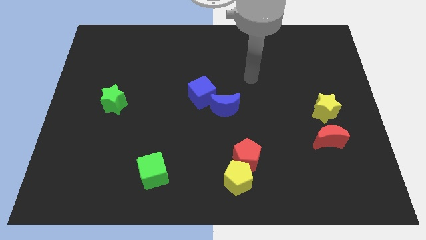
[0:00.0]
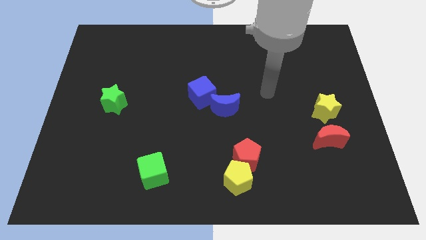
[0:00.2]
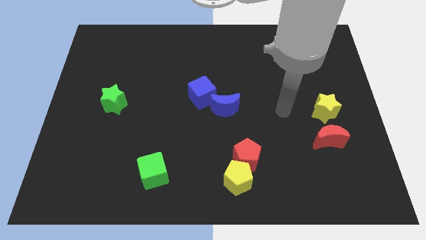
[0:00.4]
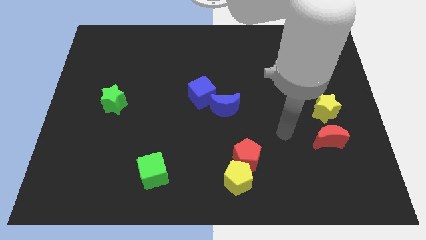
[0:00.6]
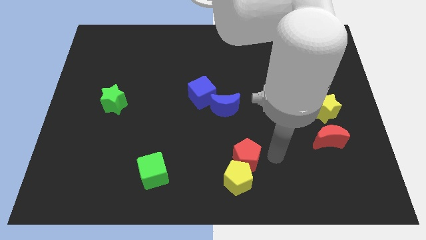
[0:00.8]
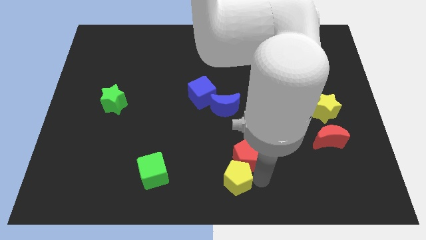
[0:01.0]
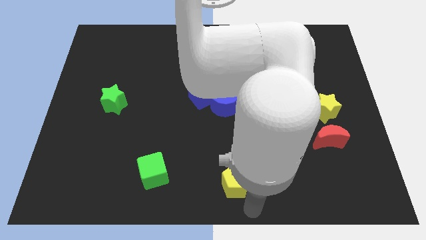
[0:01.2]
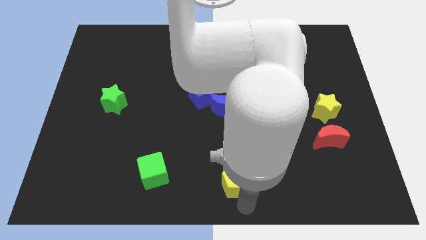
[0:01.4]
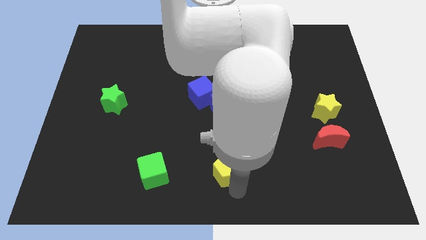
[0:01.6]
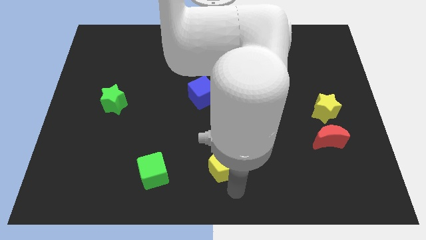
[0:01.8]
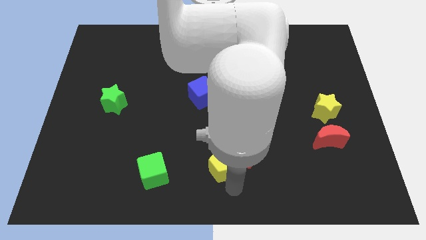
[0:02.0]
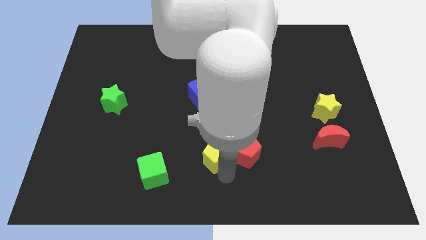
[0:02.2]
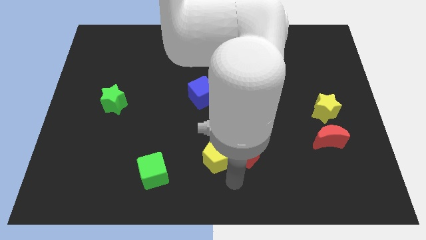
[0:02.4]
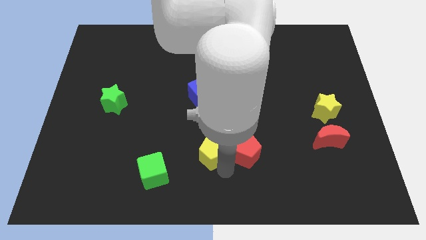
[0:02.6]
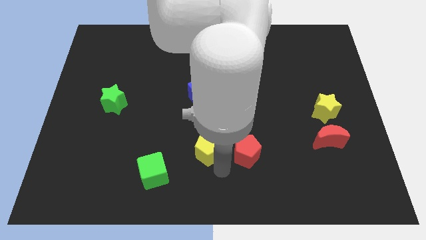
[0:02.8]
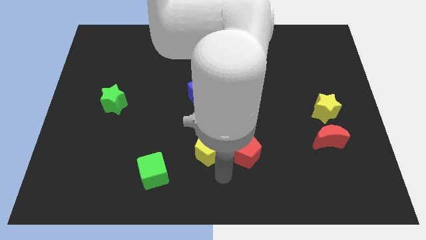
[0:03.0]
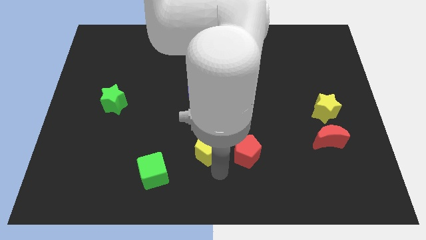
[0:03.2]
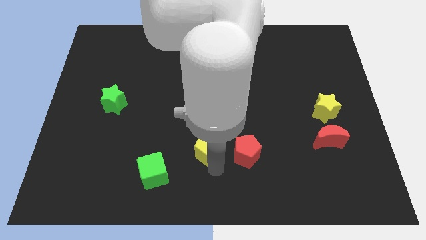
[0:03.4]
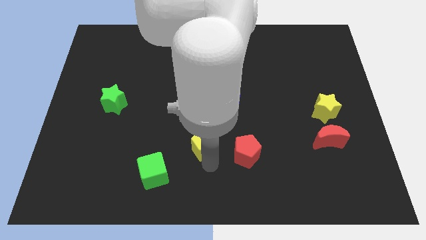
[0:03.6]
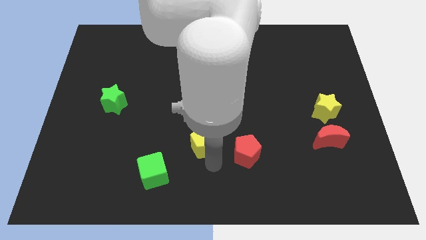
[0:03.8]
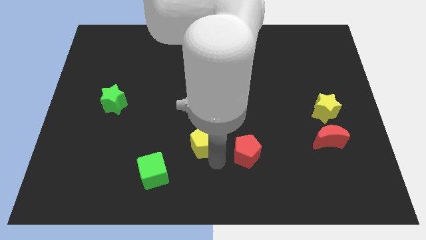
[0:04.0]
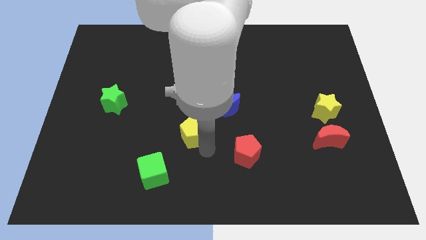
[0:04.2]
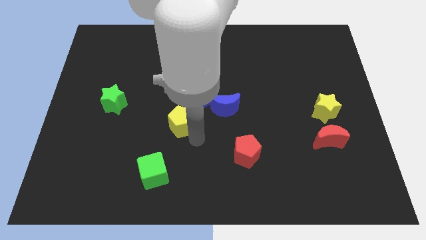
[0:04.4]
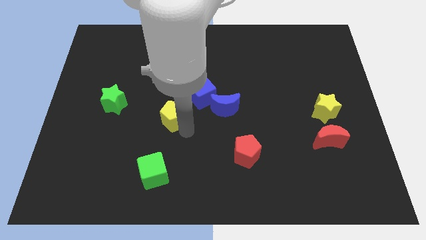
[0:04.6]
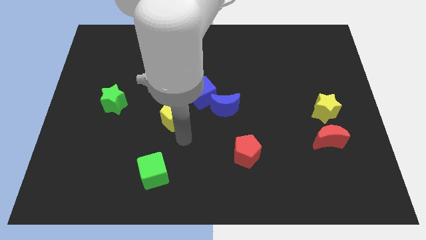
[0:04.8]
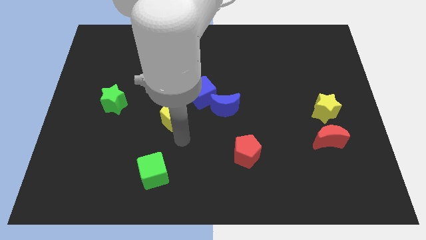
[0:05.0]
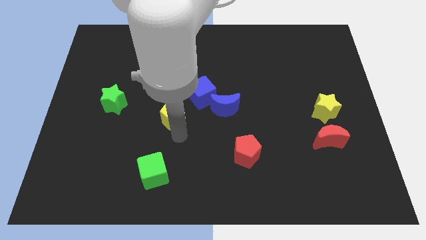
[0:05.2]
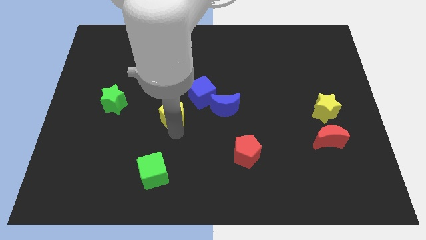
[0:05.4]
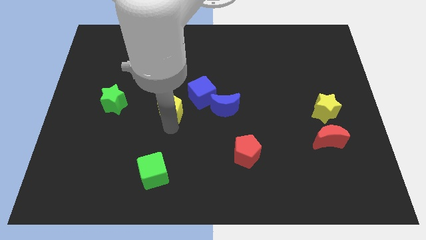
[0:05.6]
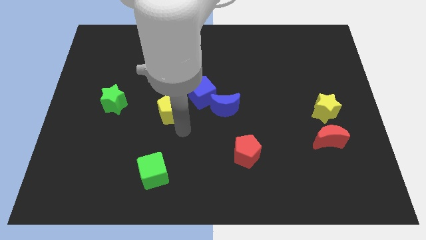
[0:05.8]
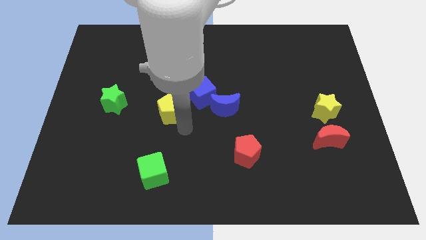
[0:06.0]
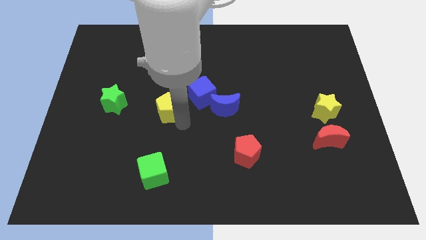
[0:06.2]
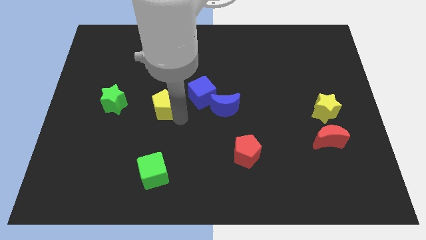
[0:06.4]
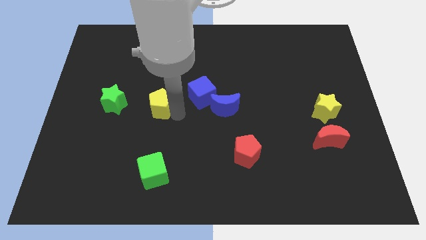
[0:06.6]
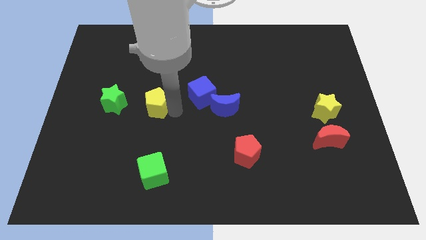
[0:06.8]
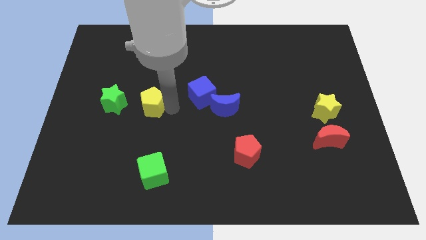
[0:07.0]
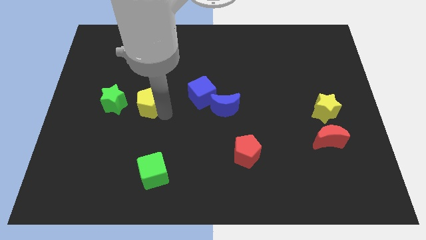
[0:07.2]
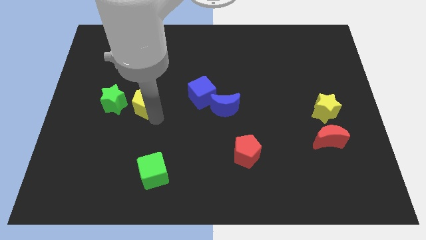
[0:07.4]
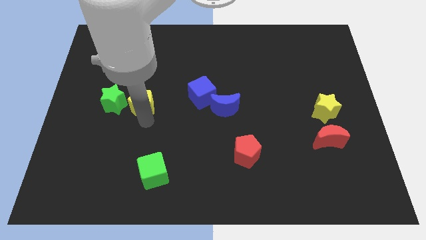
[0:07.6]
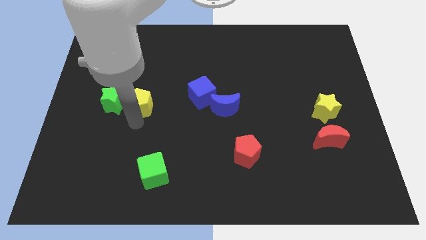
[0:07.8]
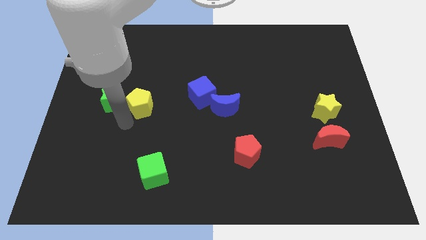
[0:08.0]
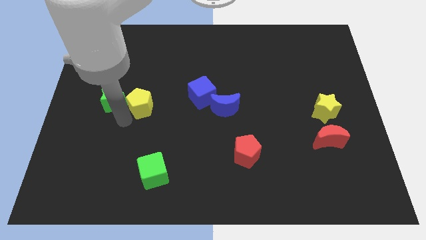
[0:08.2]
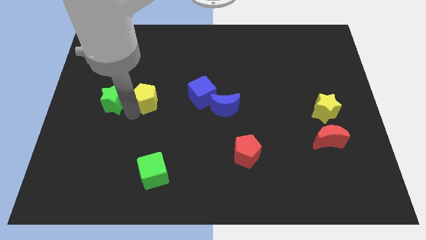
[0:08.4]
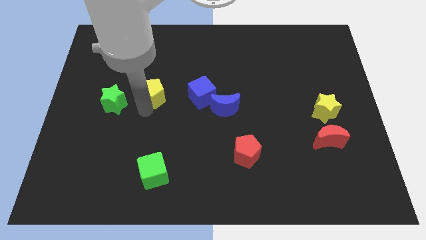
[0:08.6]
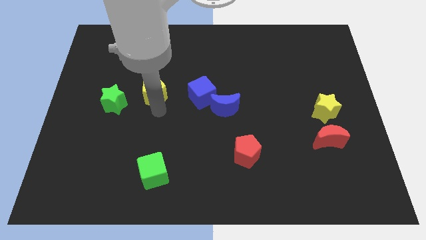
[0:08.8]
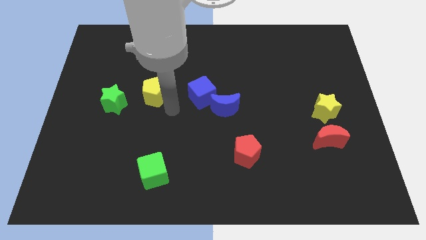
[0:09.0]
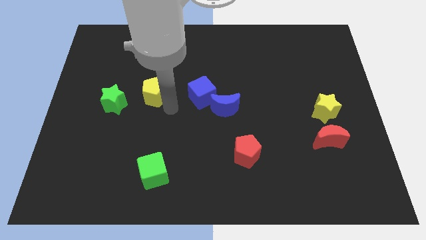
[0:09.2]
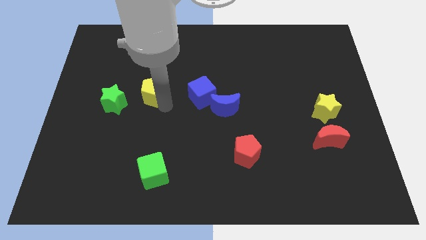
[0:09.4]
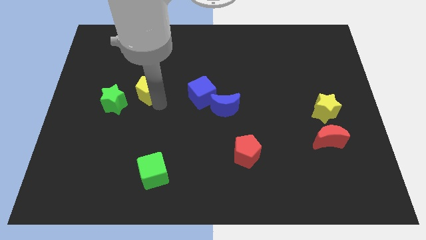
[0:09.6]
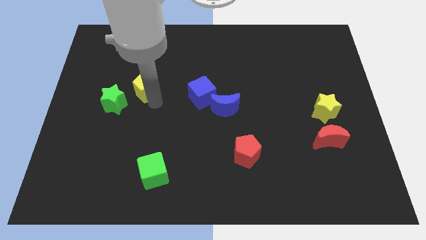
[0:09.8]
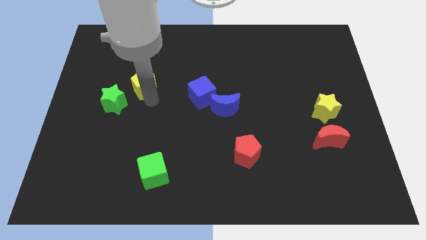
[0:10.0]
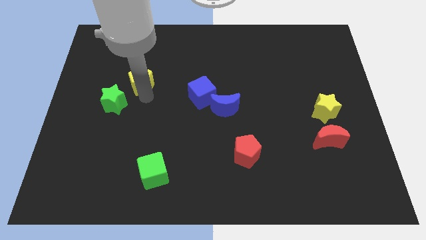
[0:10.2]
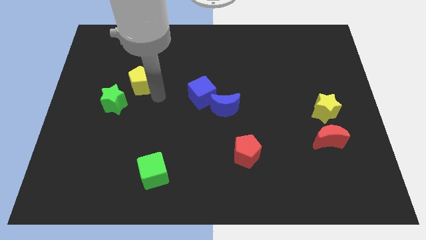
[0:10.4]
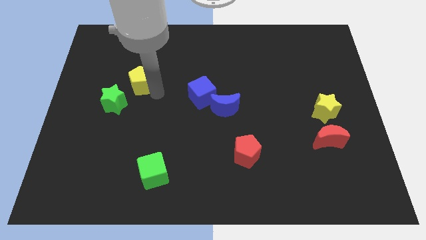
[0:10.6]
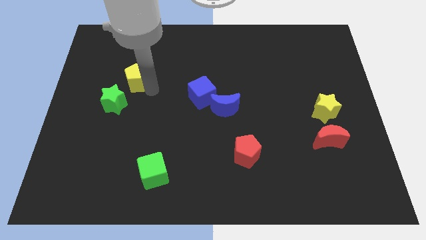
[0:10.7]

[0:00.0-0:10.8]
move the yellow pentagon to the top side of the green star

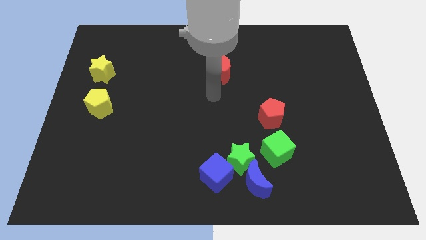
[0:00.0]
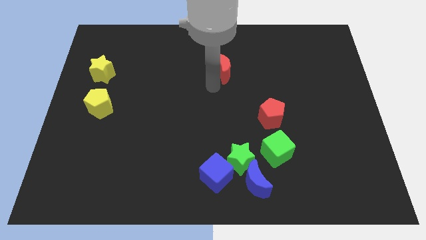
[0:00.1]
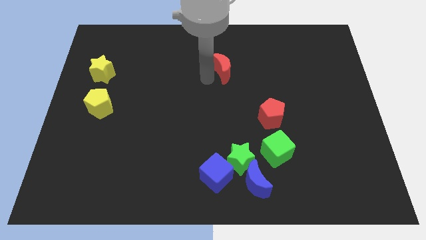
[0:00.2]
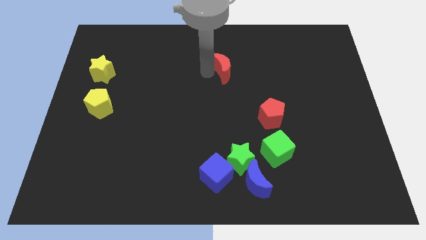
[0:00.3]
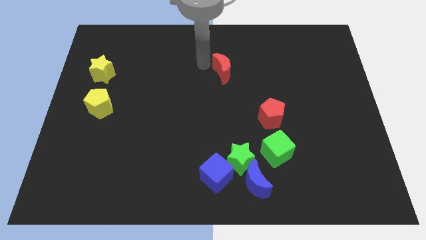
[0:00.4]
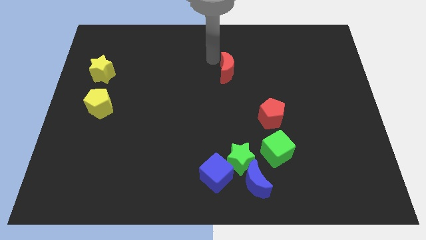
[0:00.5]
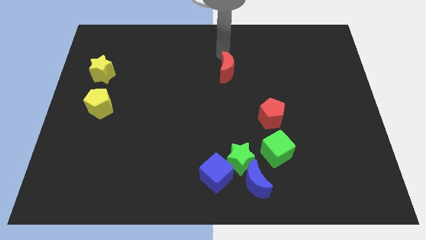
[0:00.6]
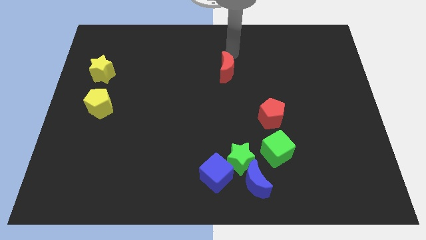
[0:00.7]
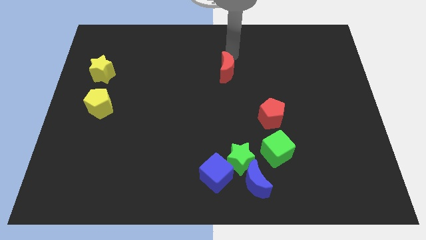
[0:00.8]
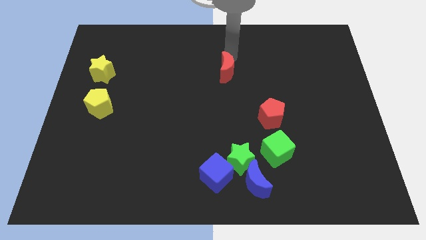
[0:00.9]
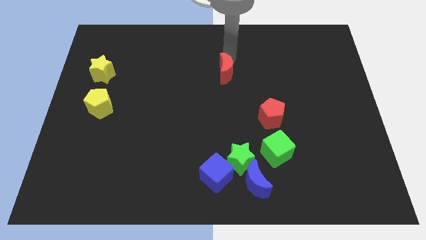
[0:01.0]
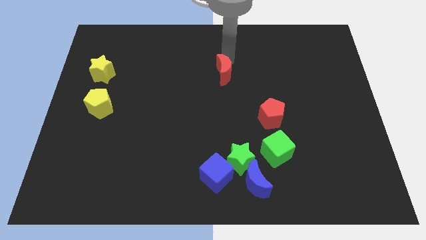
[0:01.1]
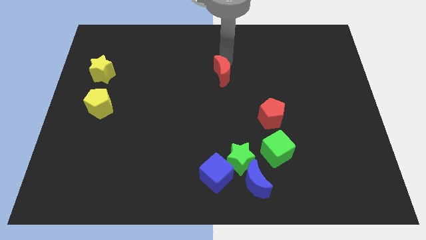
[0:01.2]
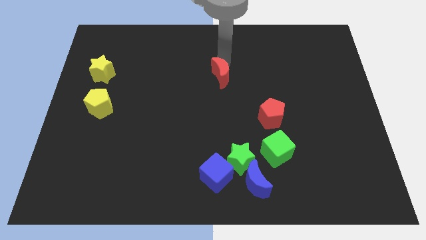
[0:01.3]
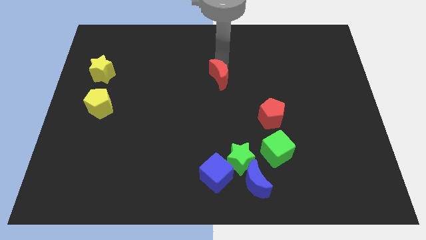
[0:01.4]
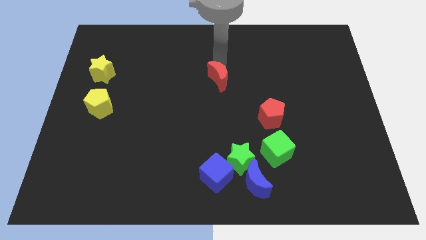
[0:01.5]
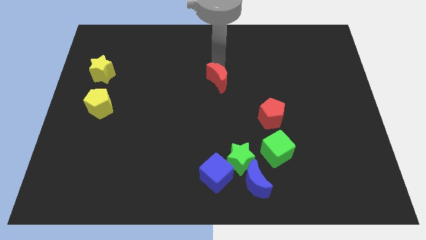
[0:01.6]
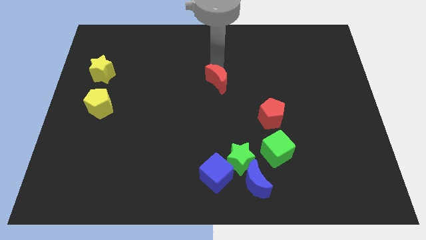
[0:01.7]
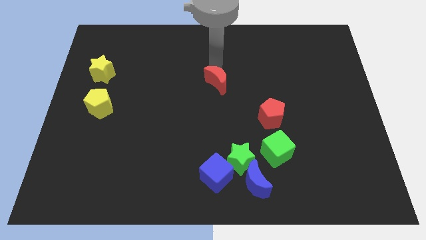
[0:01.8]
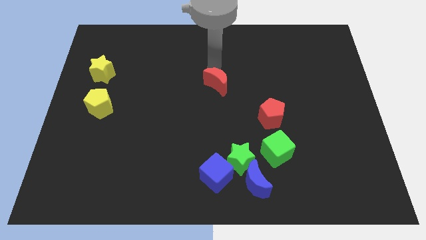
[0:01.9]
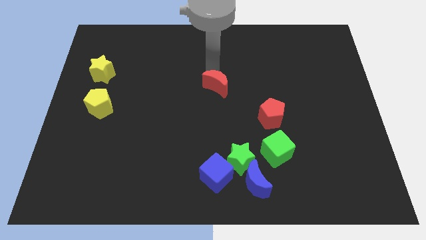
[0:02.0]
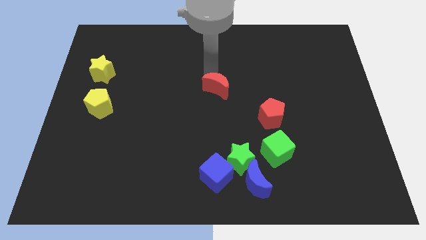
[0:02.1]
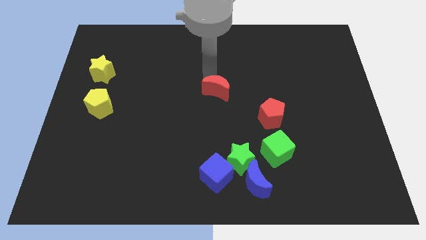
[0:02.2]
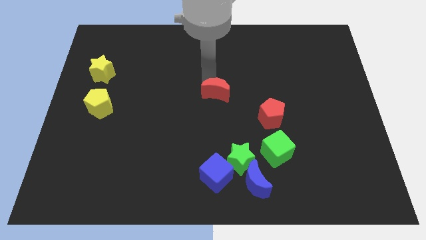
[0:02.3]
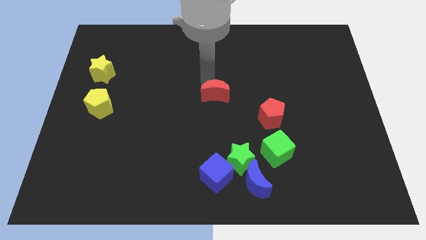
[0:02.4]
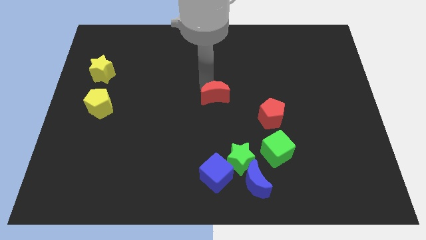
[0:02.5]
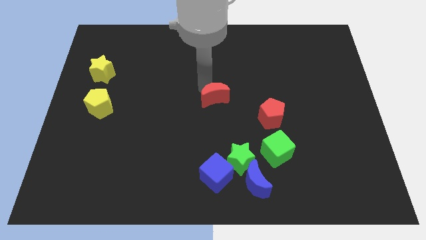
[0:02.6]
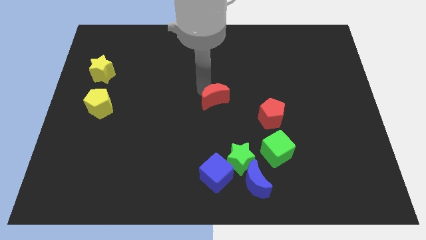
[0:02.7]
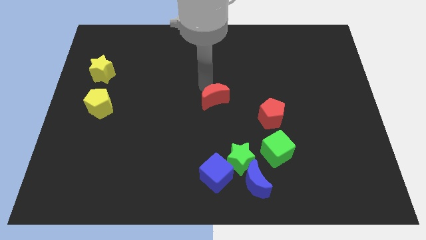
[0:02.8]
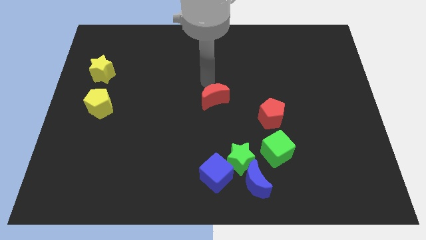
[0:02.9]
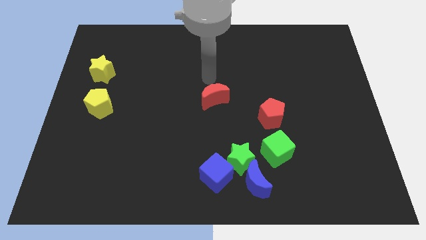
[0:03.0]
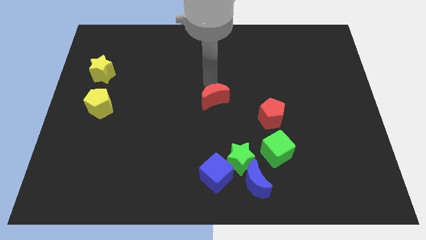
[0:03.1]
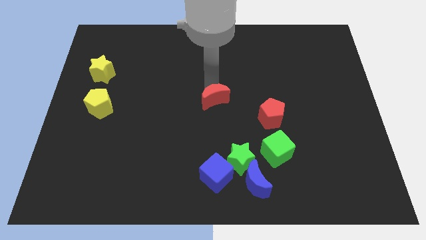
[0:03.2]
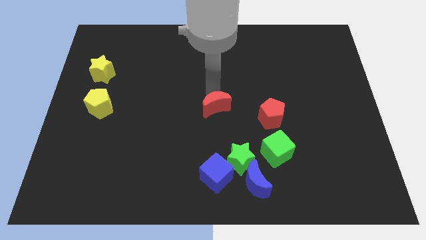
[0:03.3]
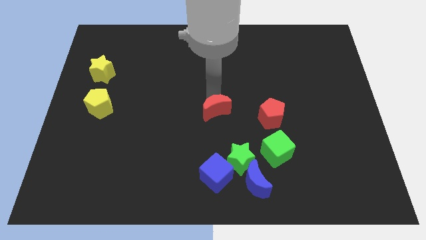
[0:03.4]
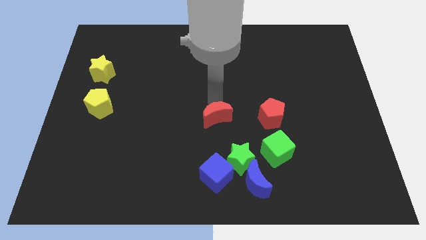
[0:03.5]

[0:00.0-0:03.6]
push the red moon to the top side of the blue cube
